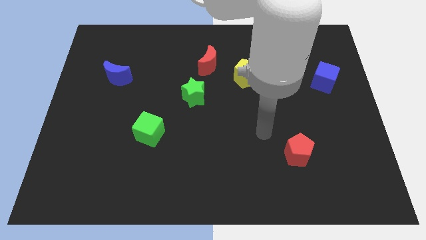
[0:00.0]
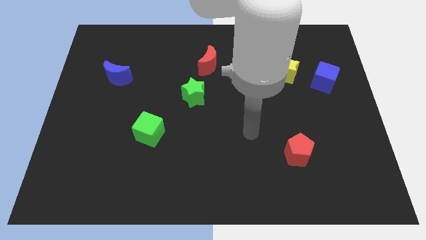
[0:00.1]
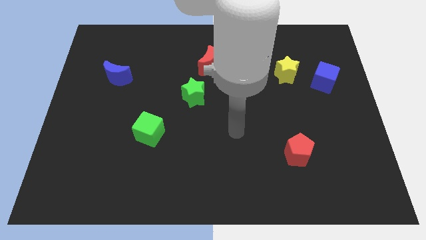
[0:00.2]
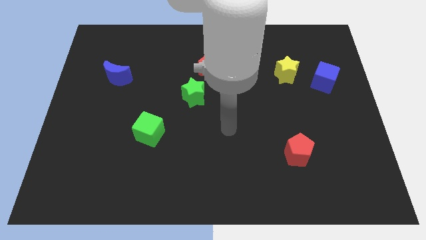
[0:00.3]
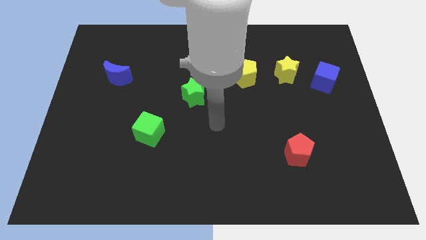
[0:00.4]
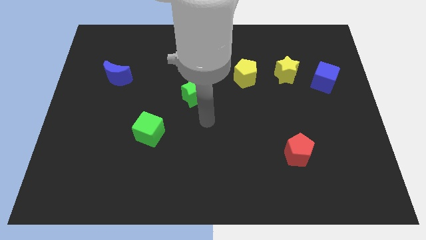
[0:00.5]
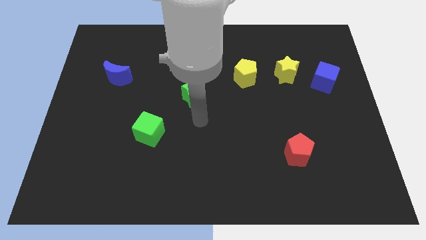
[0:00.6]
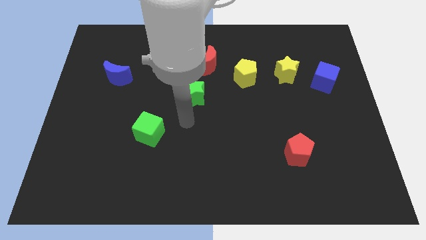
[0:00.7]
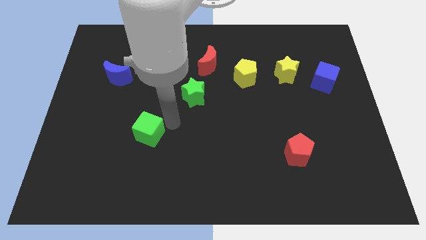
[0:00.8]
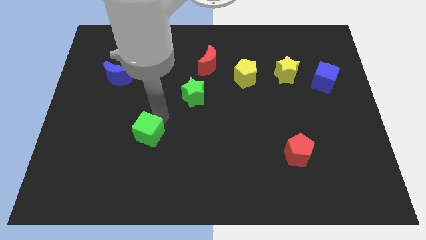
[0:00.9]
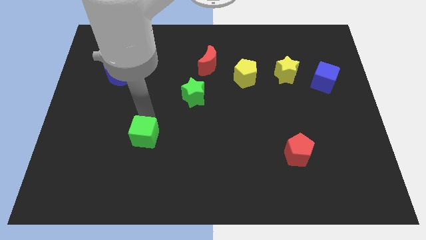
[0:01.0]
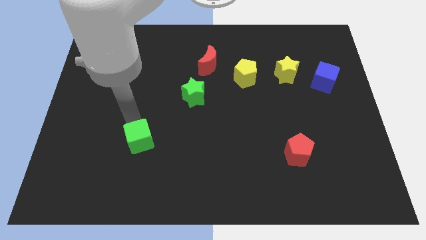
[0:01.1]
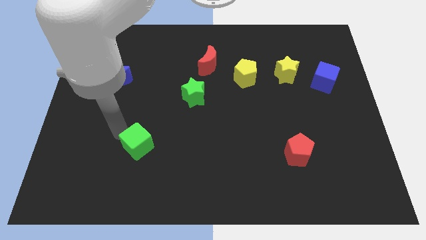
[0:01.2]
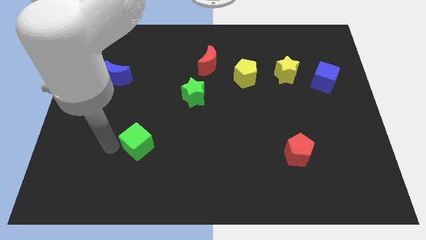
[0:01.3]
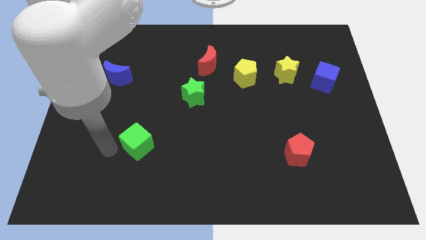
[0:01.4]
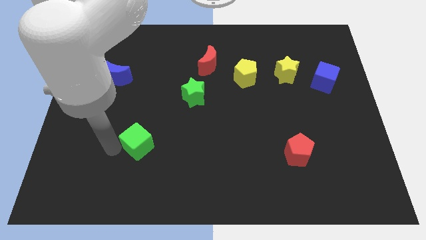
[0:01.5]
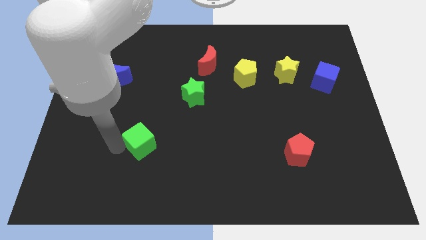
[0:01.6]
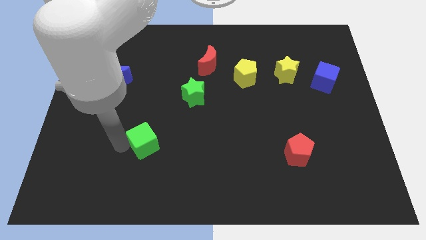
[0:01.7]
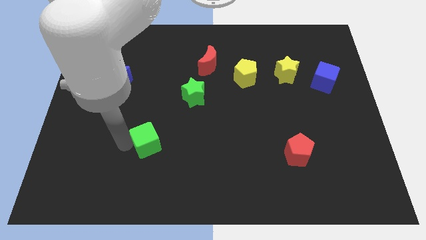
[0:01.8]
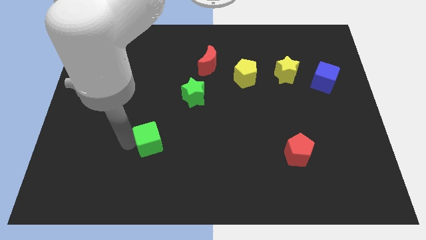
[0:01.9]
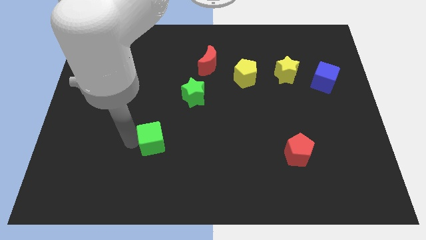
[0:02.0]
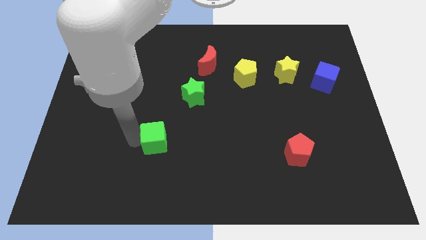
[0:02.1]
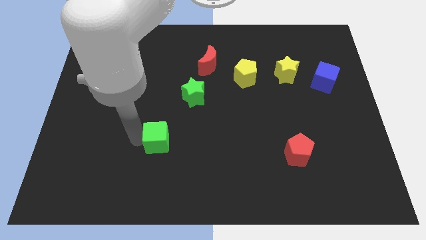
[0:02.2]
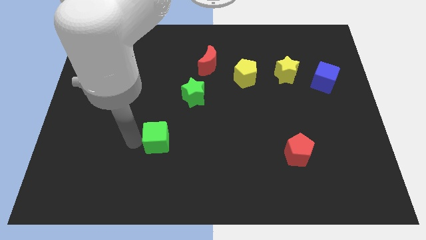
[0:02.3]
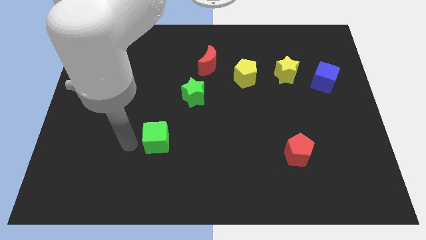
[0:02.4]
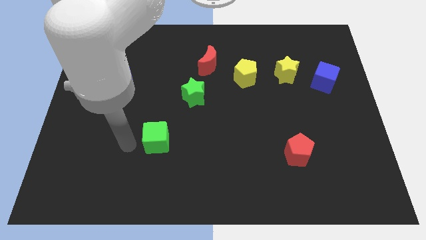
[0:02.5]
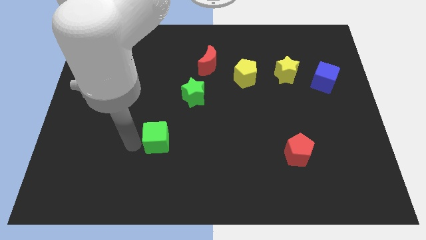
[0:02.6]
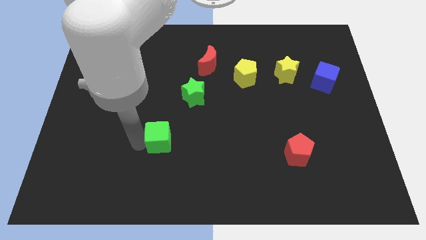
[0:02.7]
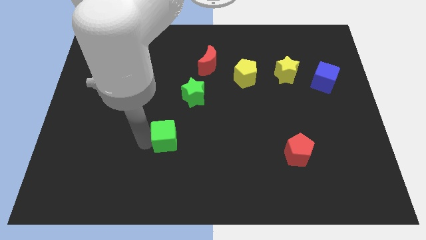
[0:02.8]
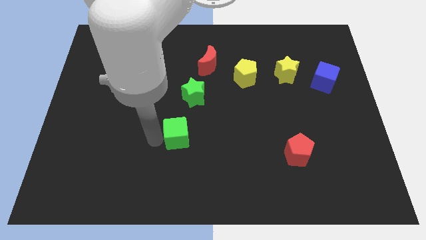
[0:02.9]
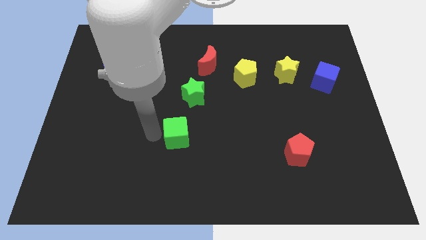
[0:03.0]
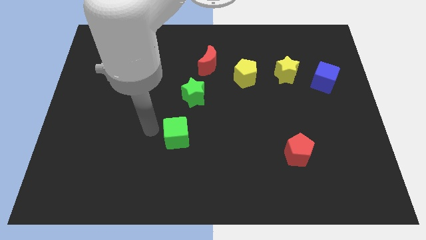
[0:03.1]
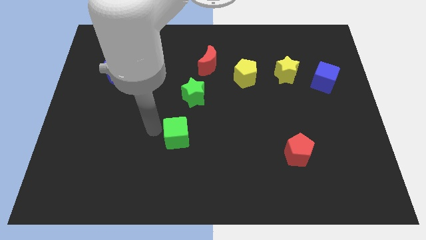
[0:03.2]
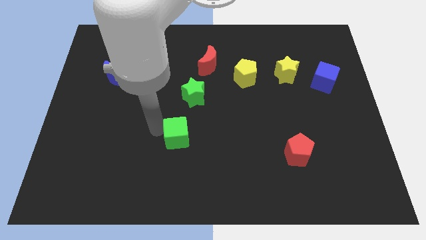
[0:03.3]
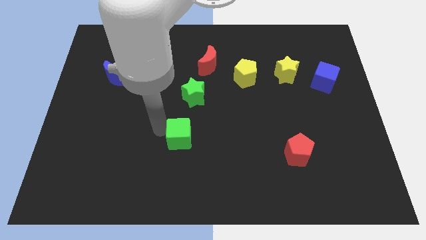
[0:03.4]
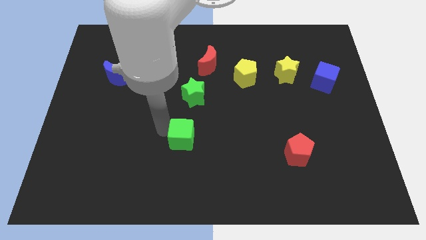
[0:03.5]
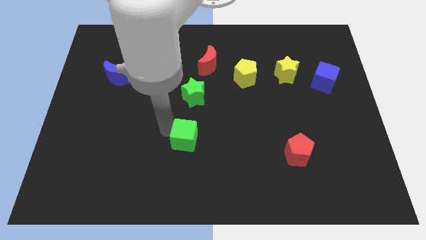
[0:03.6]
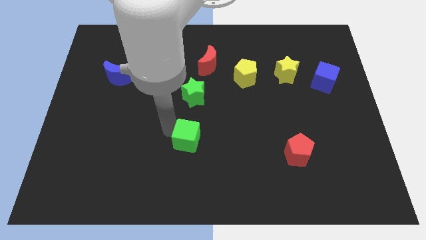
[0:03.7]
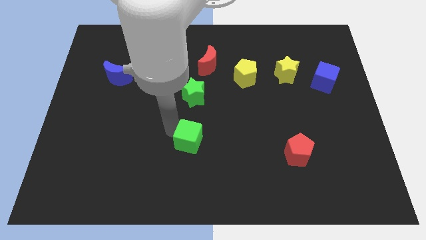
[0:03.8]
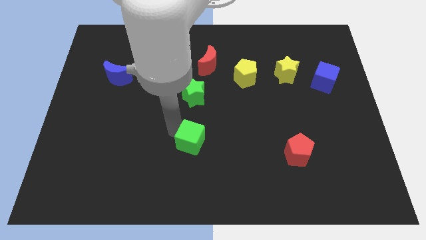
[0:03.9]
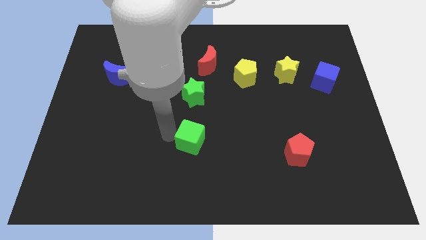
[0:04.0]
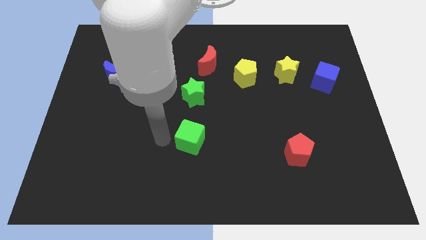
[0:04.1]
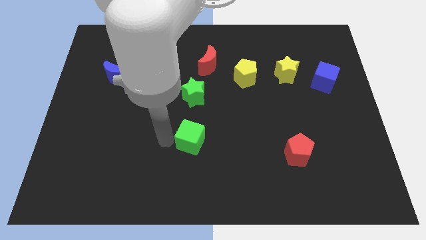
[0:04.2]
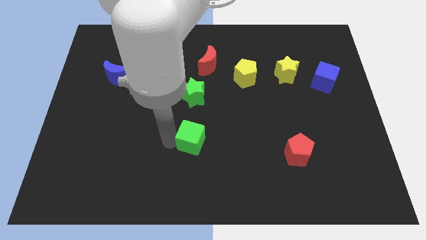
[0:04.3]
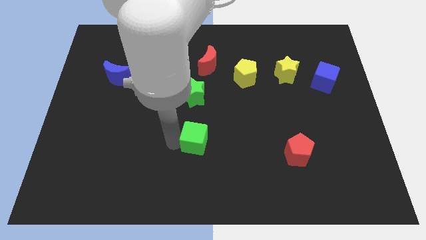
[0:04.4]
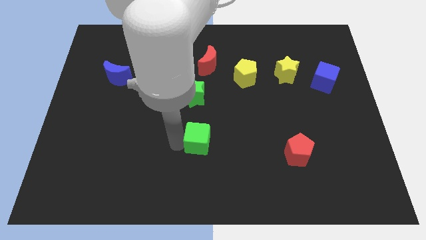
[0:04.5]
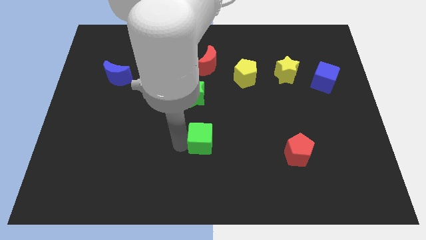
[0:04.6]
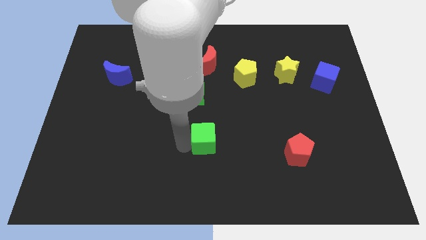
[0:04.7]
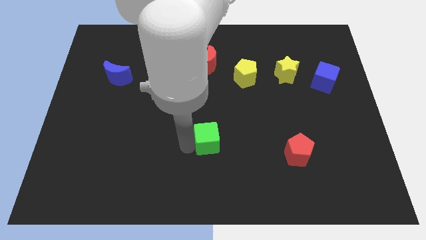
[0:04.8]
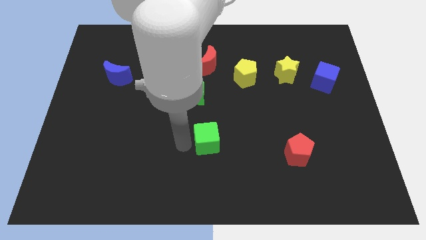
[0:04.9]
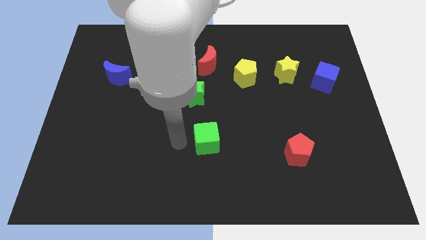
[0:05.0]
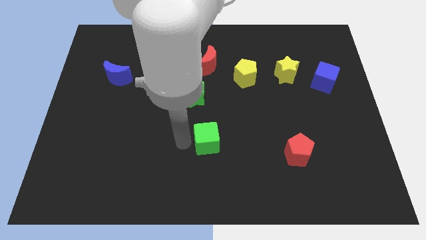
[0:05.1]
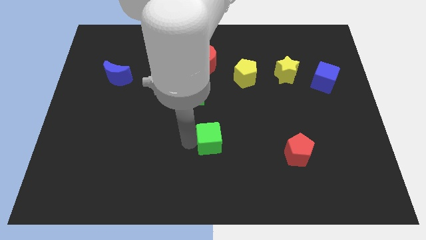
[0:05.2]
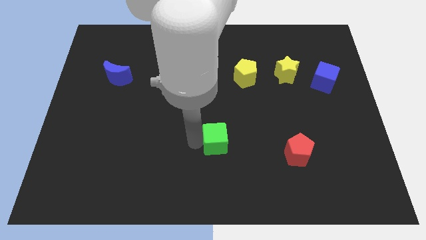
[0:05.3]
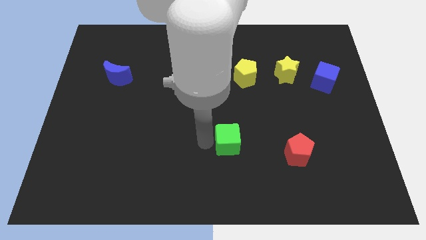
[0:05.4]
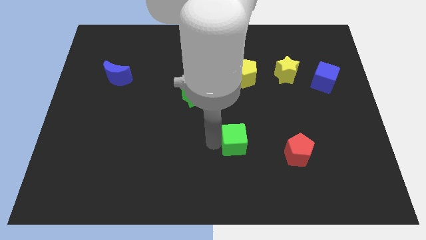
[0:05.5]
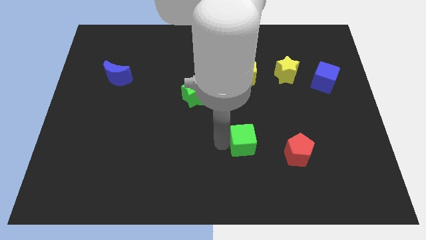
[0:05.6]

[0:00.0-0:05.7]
push the green cube to the right

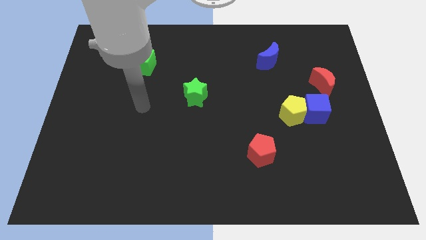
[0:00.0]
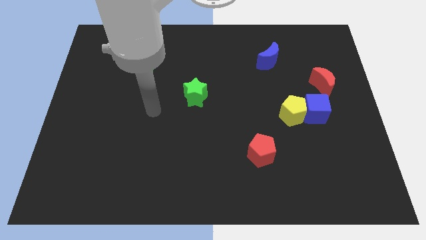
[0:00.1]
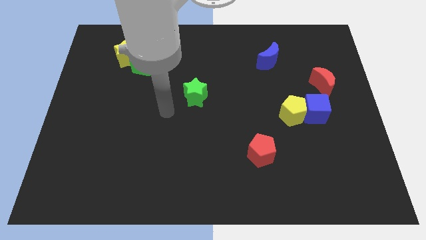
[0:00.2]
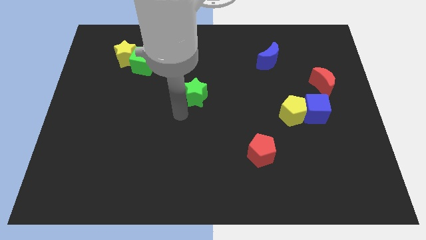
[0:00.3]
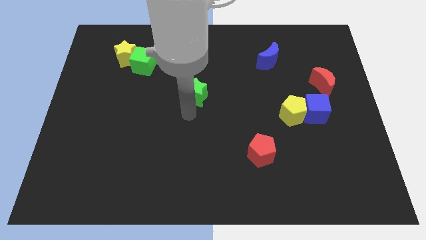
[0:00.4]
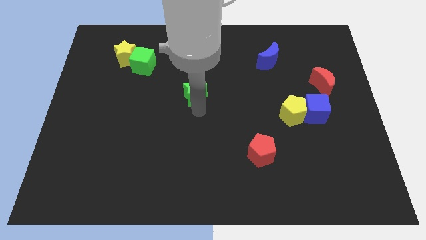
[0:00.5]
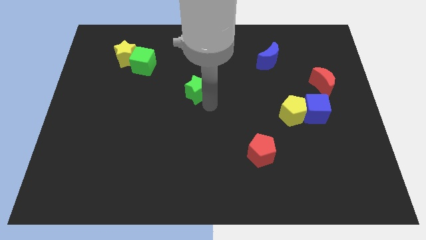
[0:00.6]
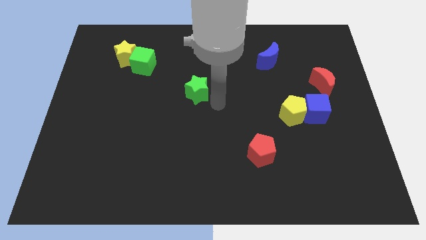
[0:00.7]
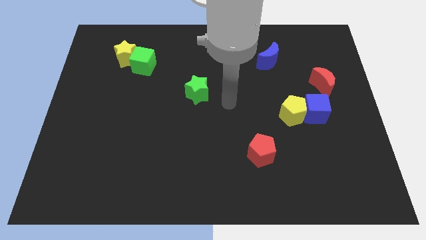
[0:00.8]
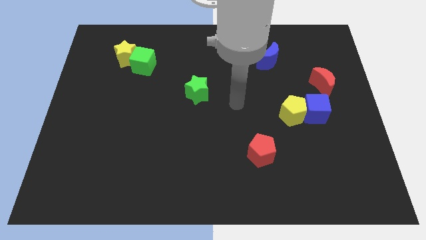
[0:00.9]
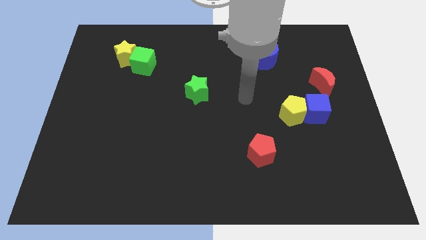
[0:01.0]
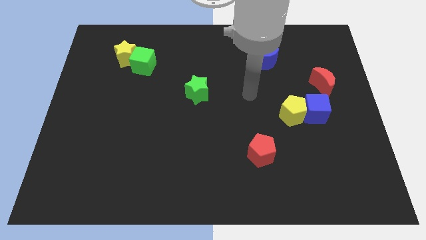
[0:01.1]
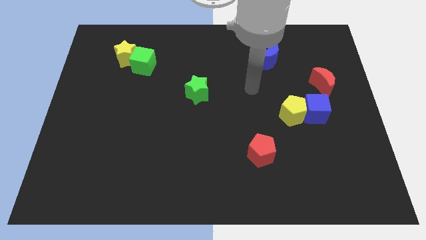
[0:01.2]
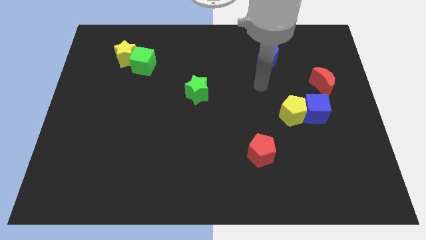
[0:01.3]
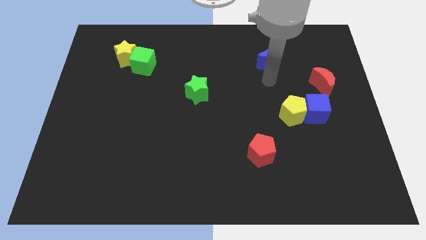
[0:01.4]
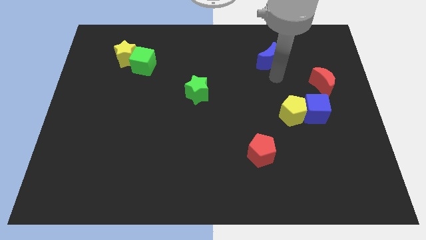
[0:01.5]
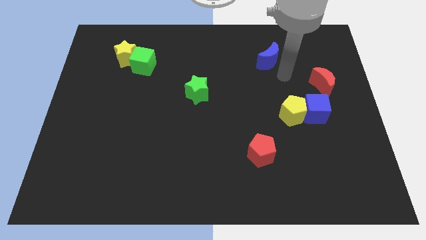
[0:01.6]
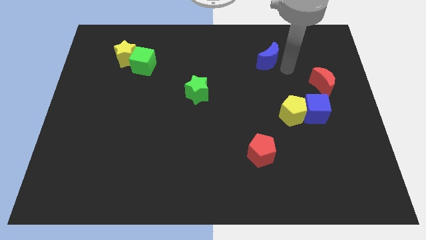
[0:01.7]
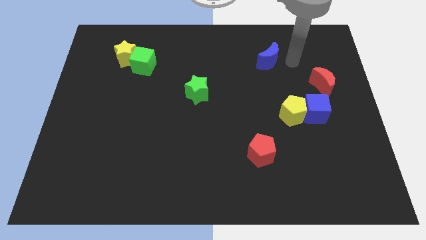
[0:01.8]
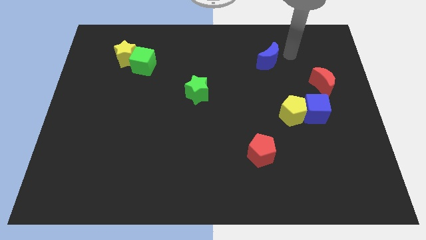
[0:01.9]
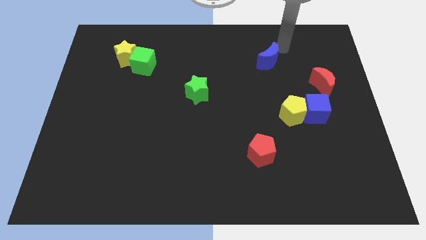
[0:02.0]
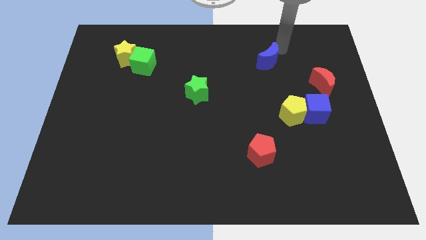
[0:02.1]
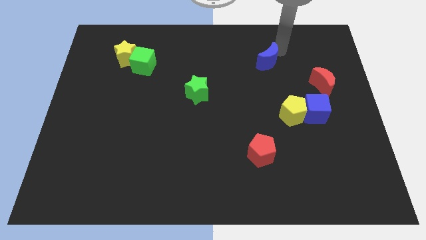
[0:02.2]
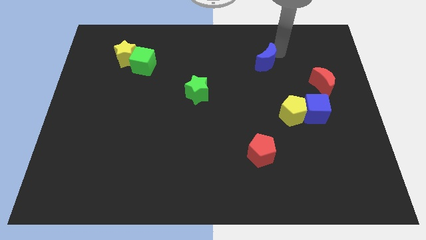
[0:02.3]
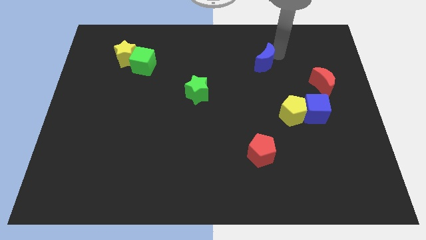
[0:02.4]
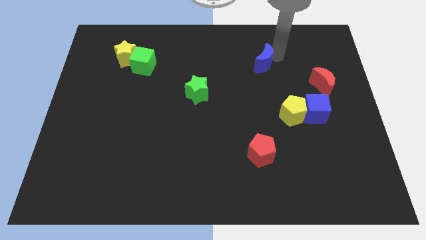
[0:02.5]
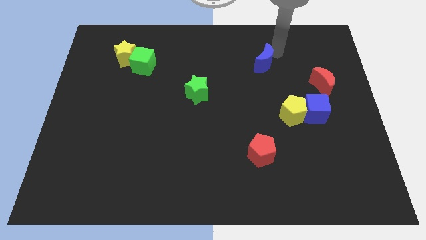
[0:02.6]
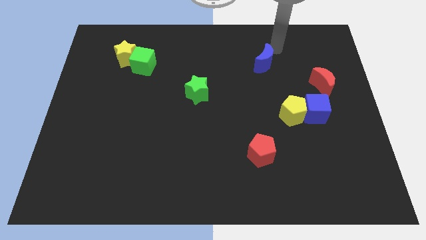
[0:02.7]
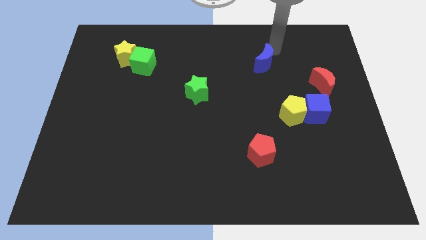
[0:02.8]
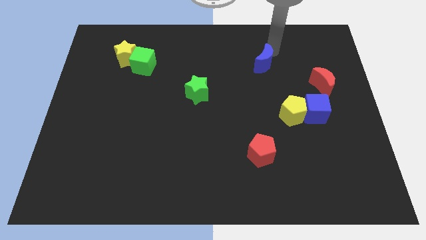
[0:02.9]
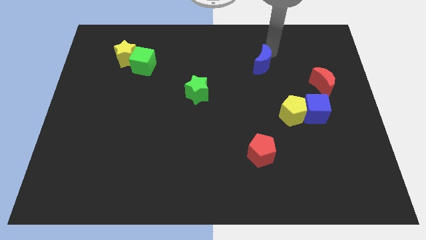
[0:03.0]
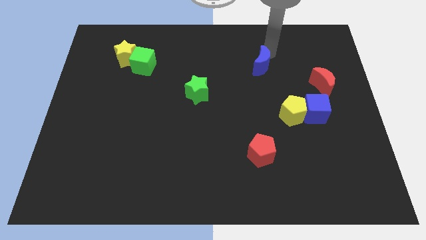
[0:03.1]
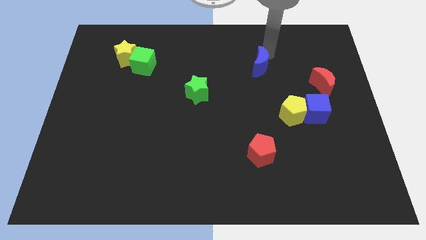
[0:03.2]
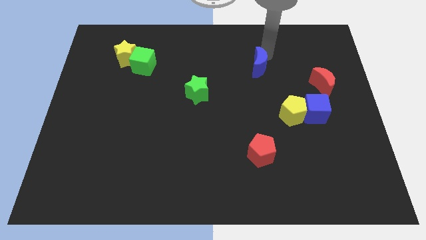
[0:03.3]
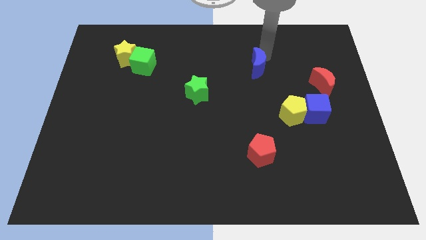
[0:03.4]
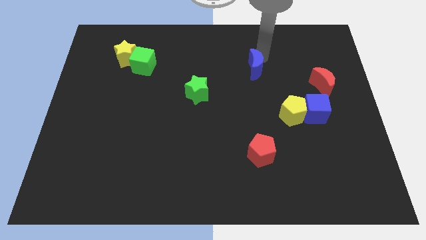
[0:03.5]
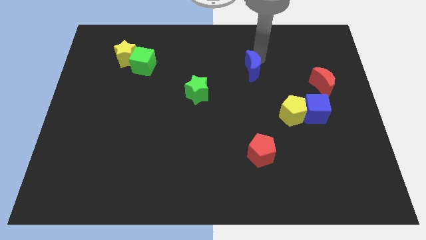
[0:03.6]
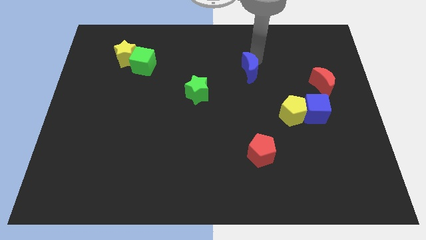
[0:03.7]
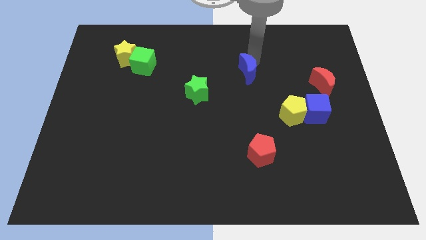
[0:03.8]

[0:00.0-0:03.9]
slightly move the blue moon downwards and left
